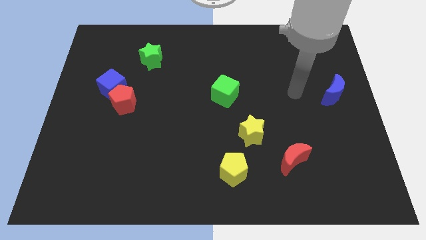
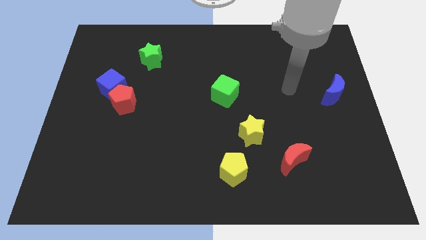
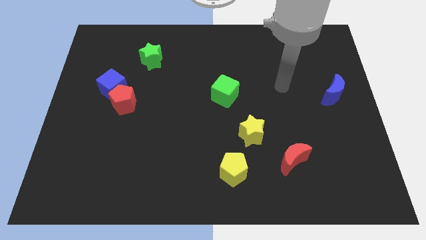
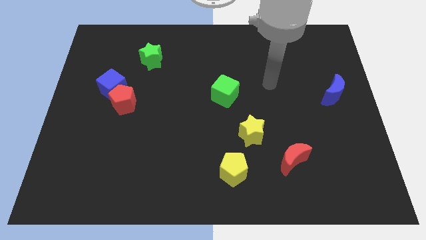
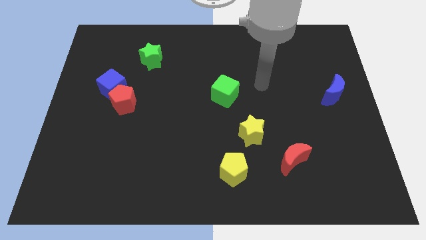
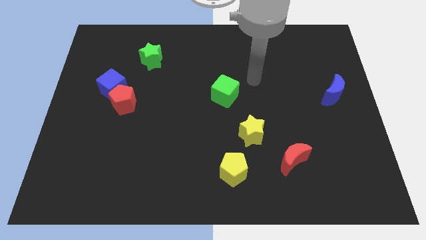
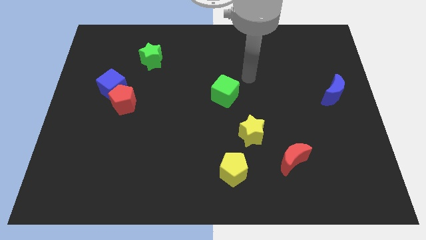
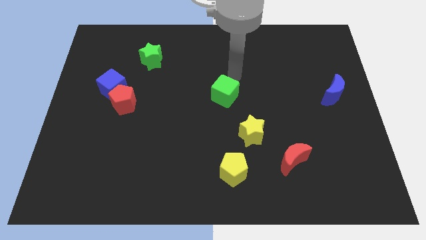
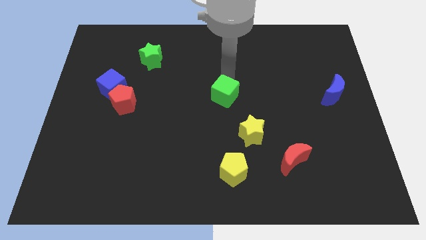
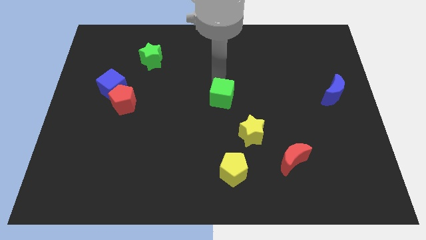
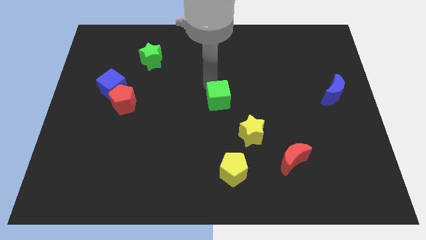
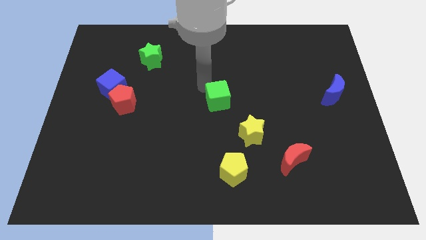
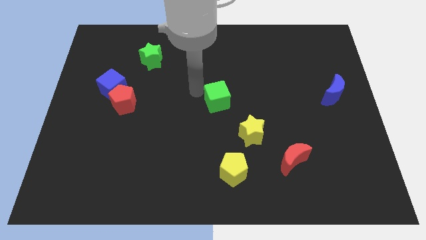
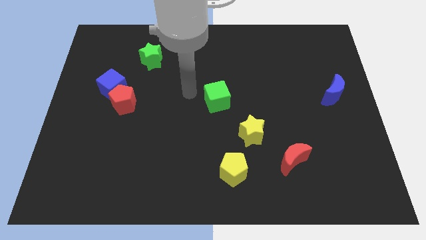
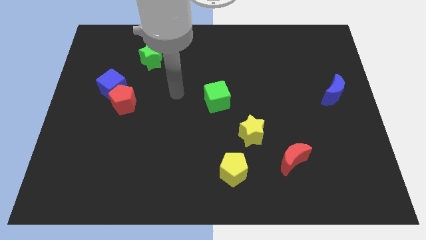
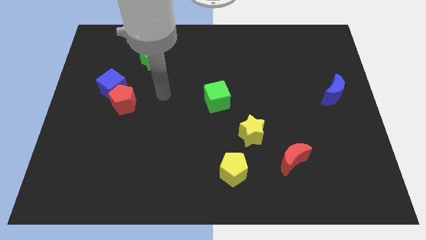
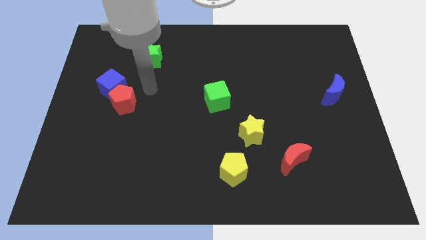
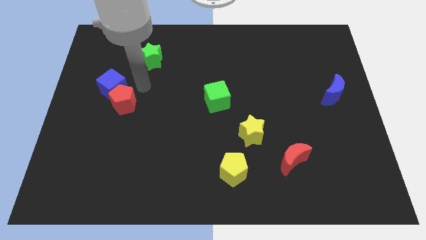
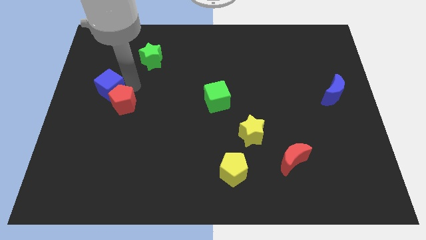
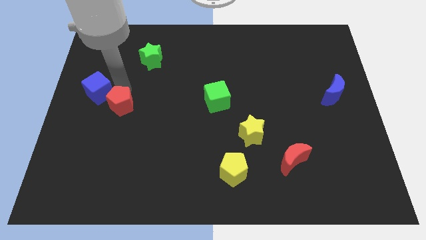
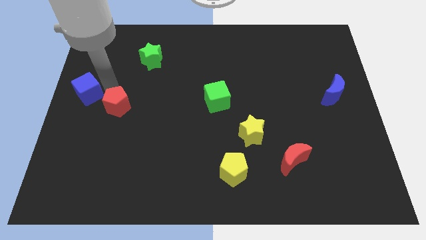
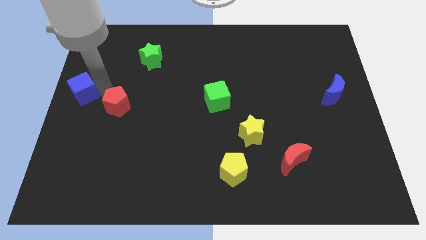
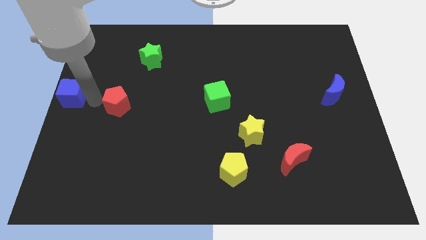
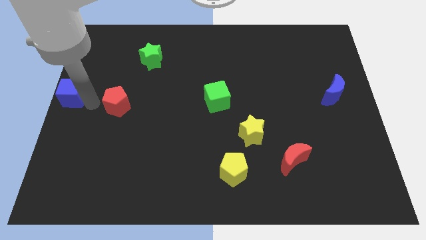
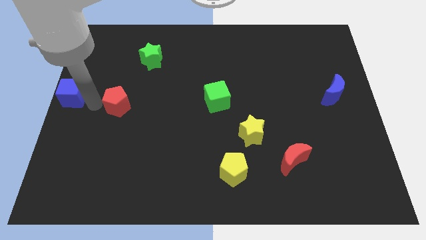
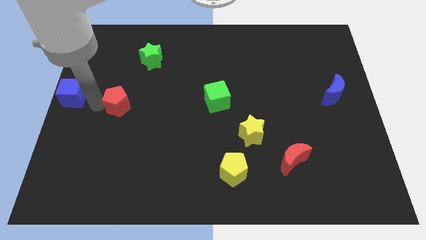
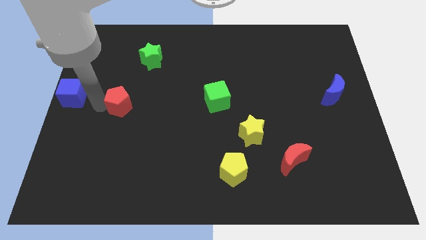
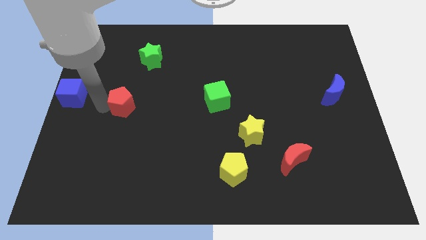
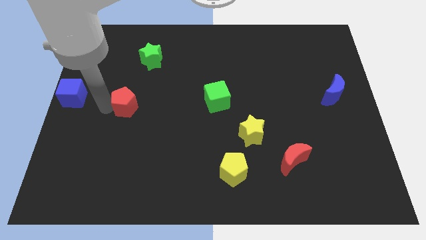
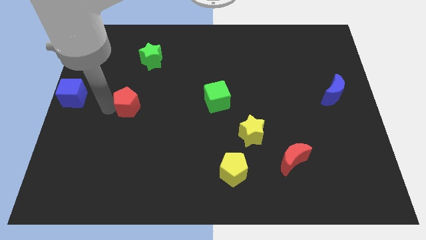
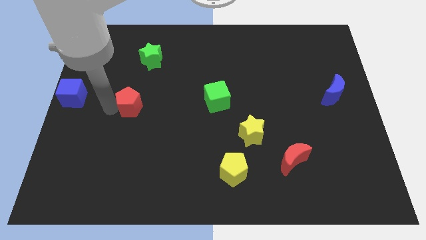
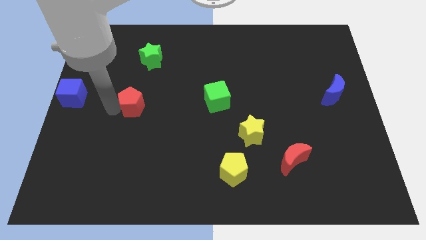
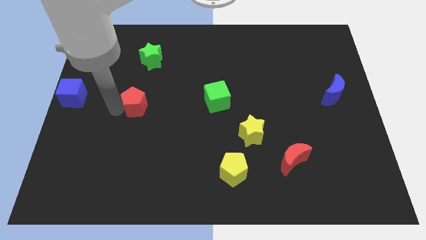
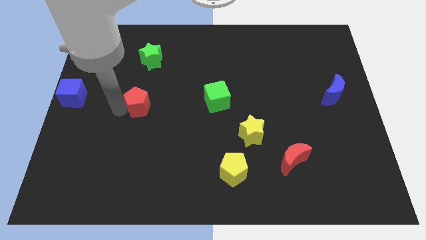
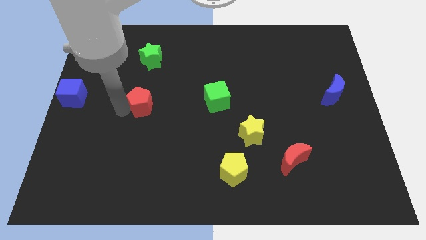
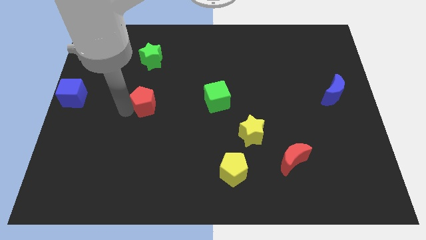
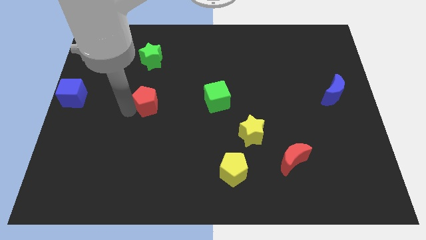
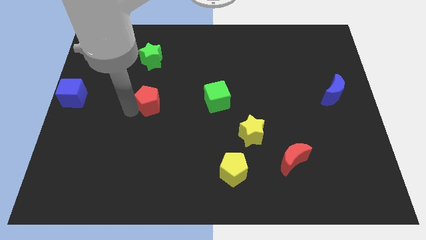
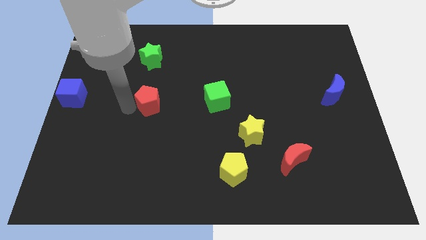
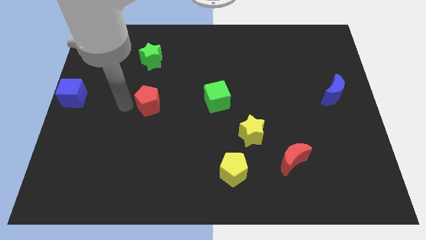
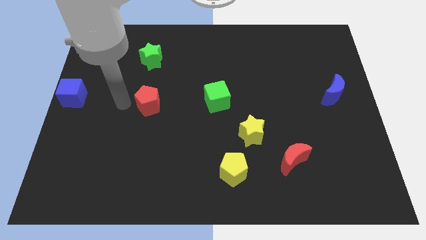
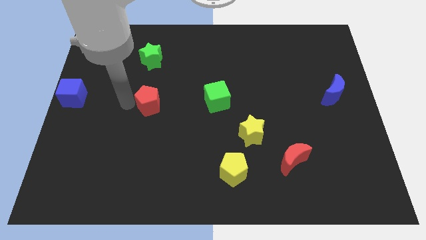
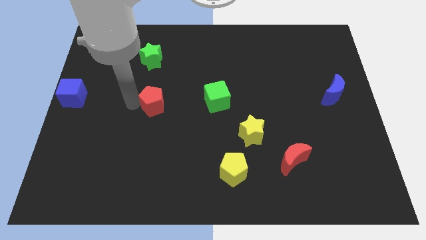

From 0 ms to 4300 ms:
move the red pentagon to the right a bit

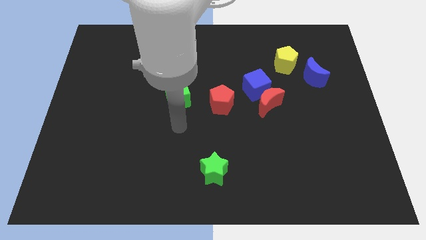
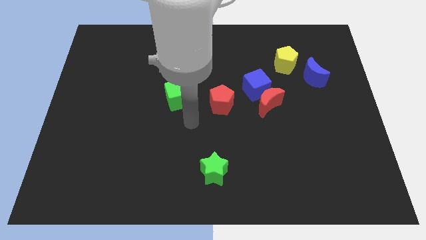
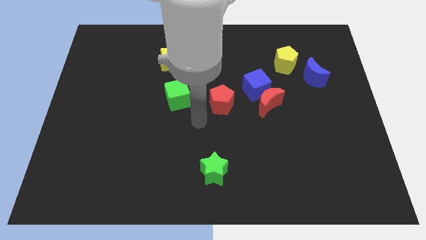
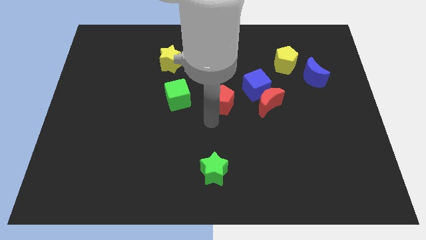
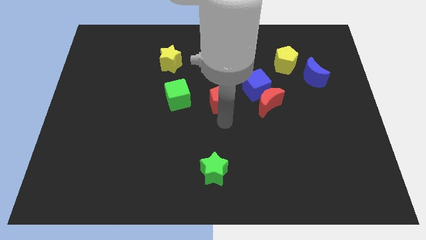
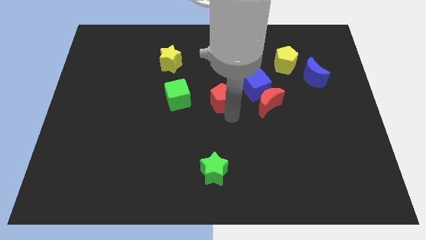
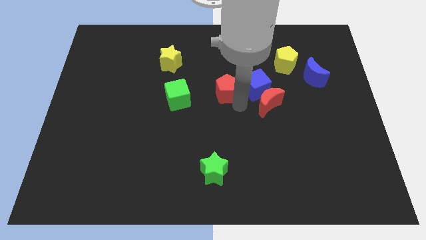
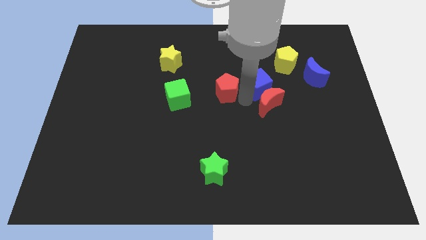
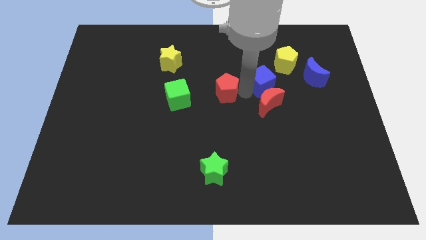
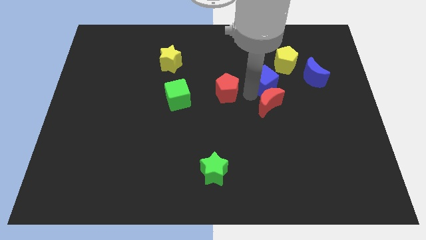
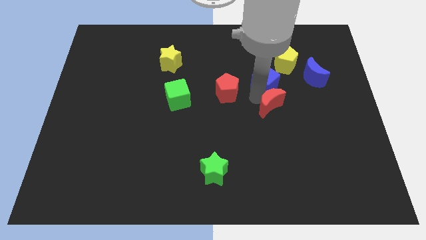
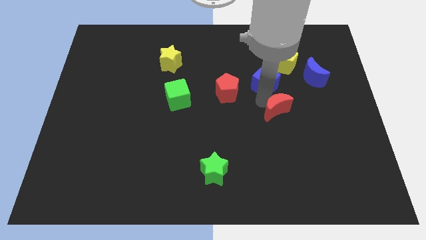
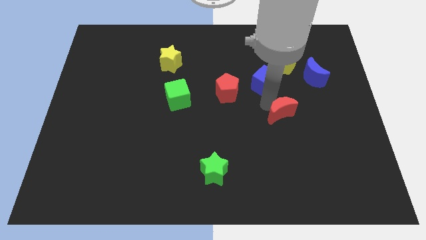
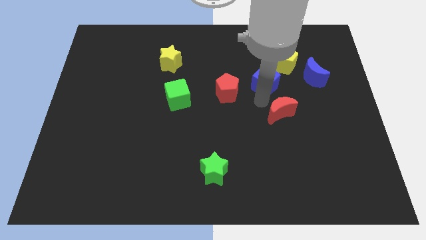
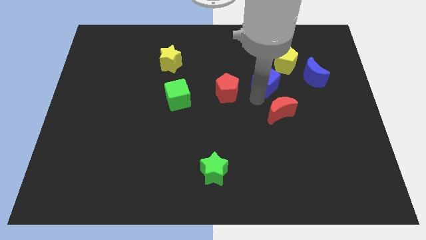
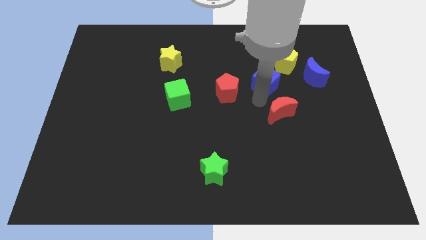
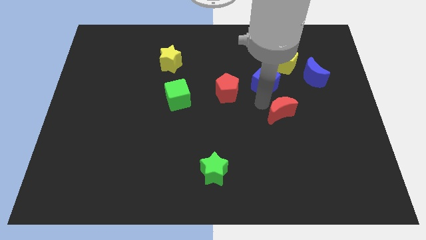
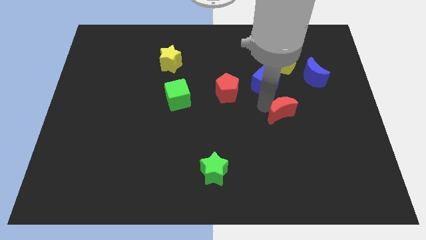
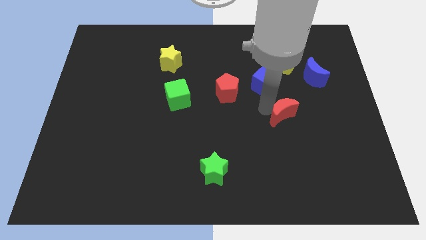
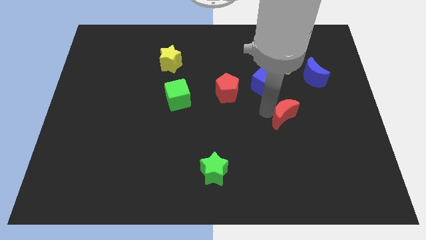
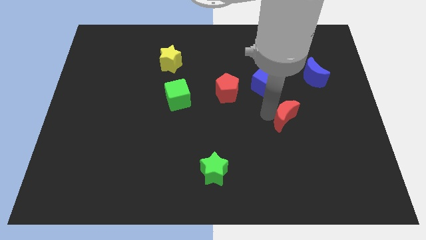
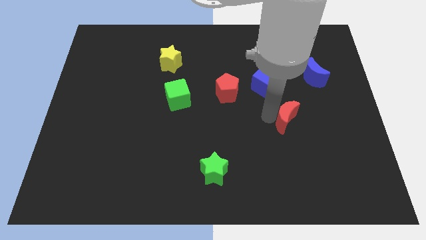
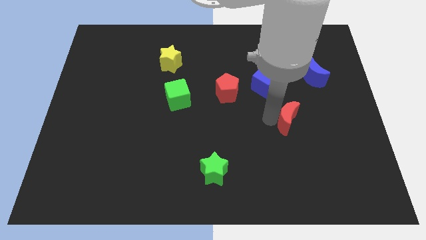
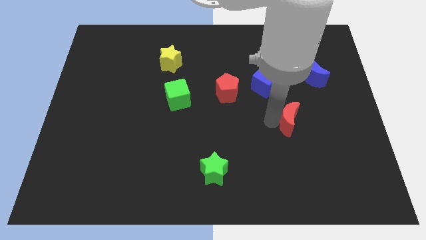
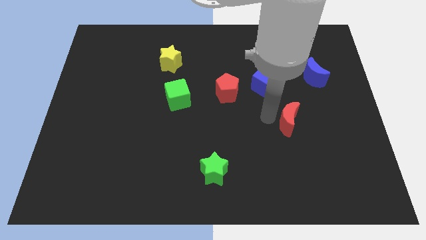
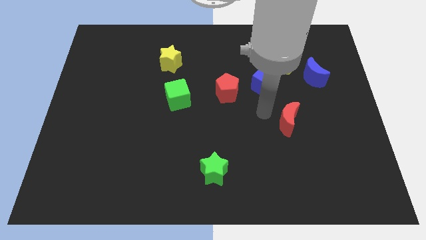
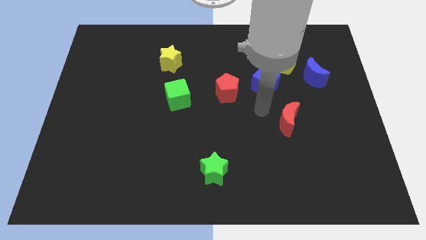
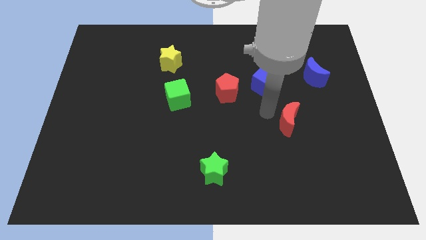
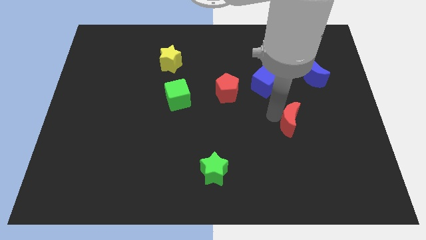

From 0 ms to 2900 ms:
push the red moon down and to the right diagonally a little

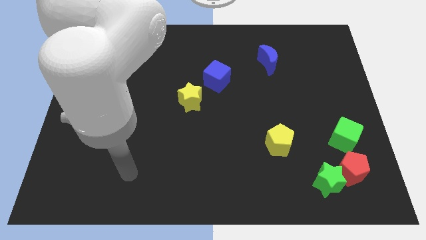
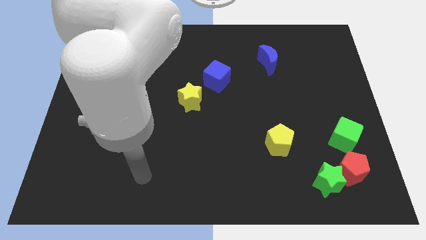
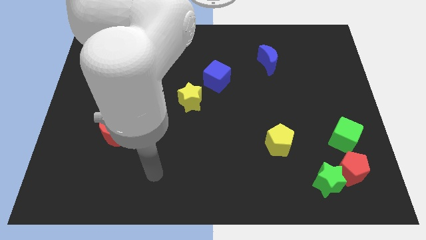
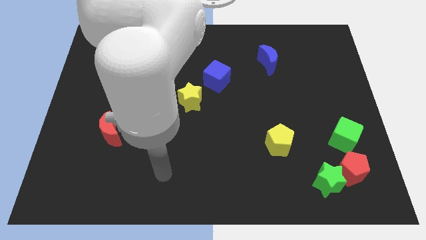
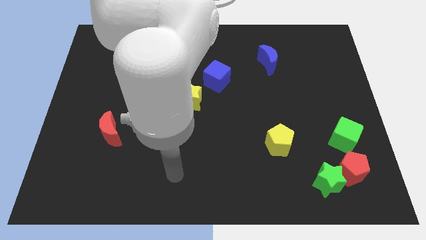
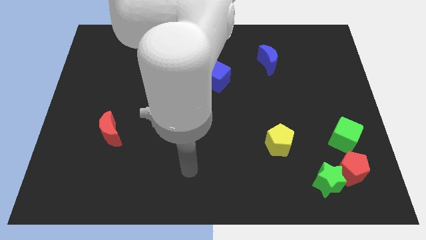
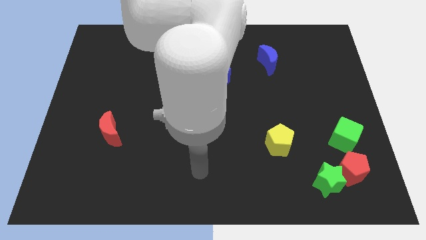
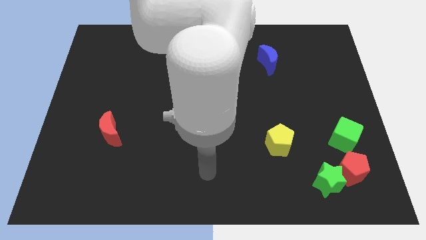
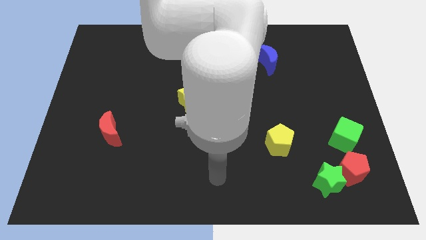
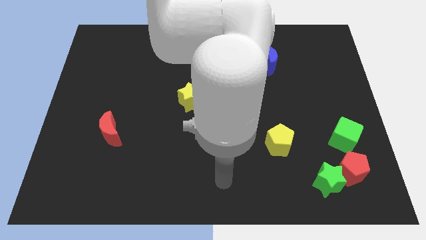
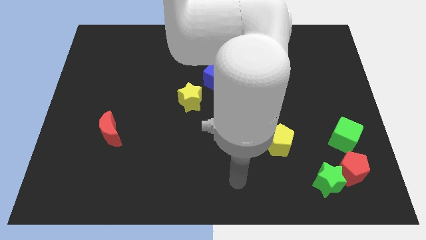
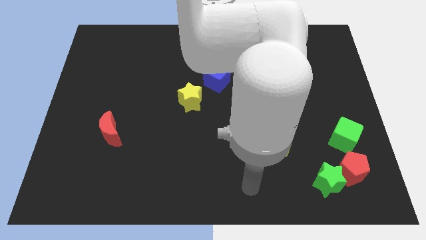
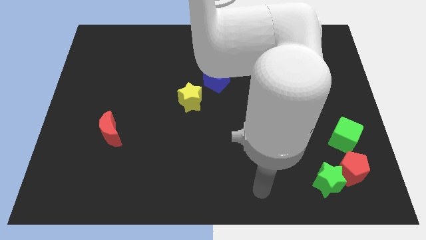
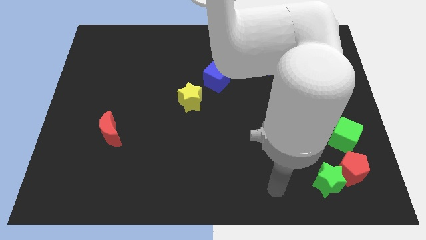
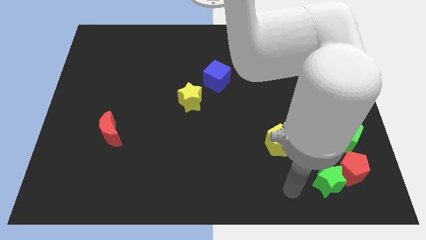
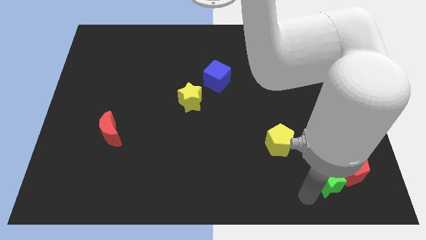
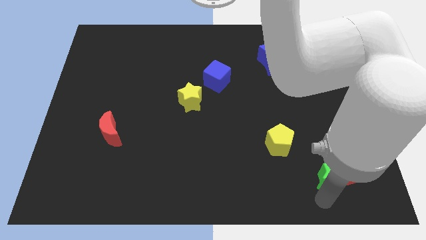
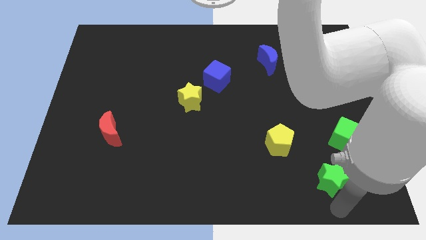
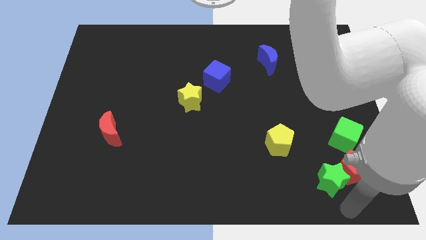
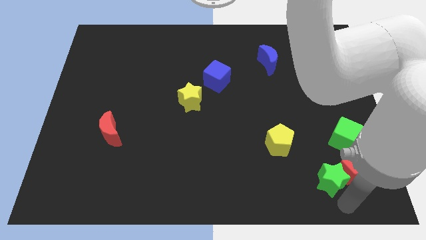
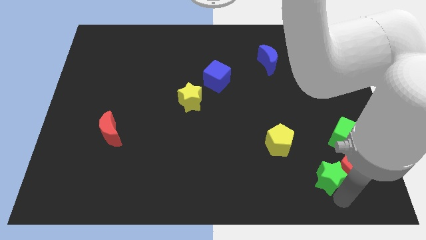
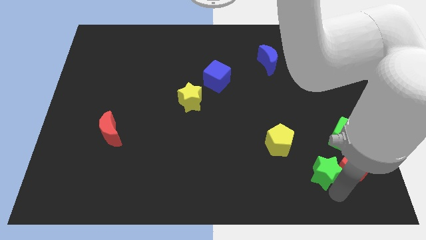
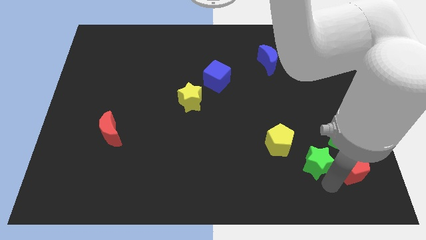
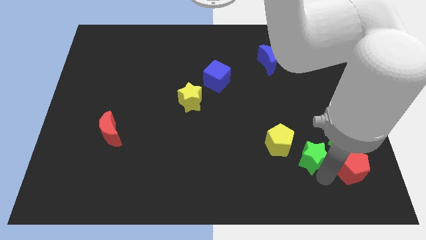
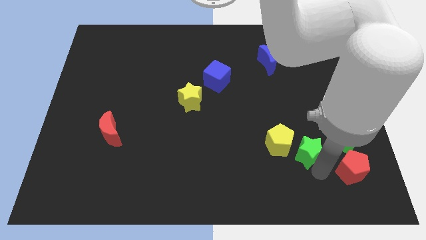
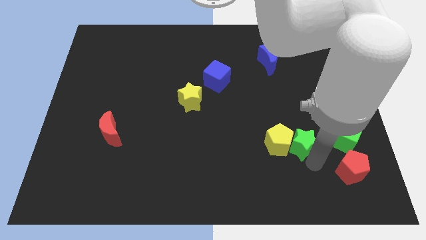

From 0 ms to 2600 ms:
move the green star a bit upwards and then left
